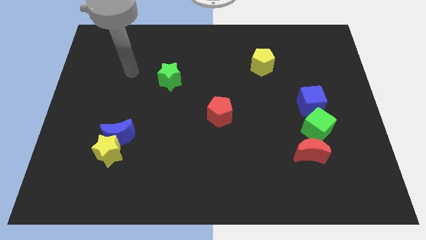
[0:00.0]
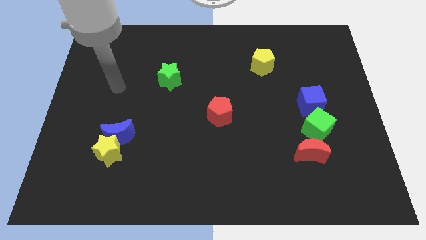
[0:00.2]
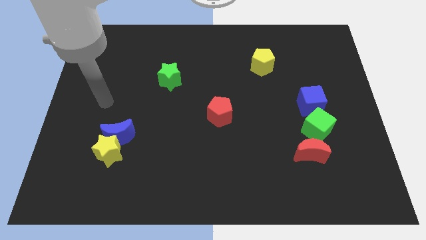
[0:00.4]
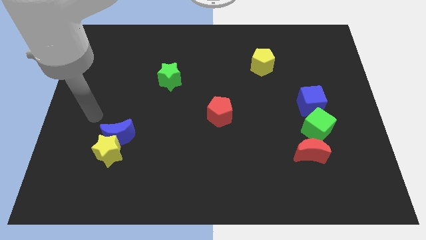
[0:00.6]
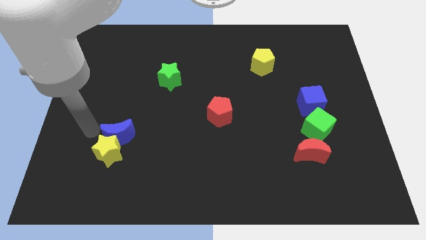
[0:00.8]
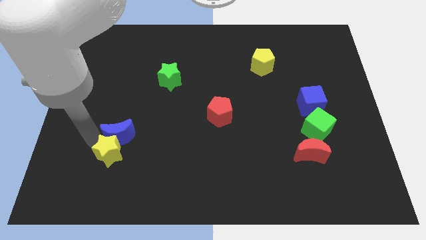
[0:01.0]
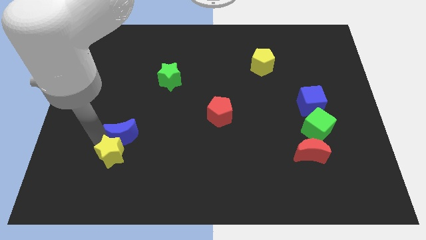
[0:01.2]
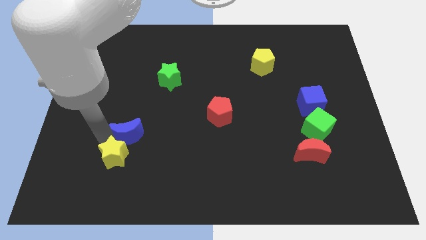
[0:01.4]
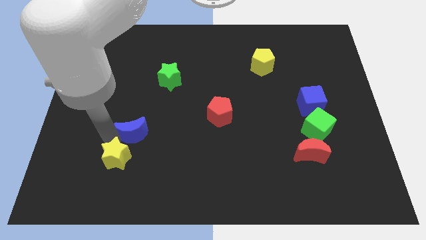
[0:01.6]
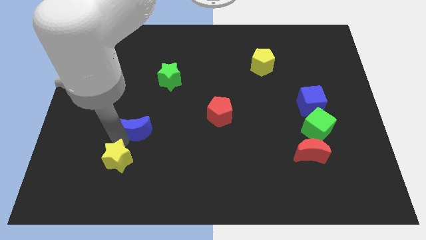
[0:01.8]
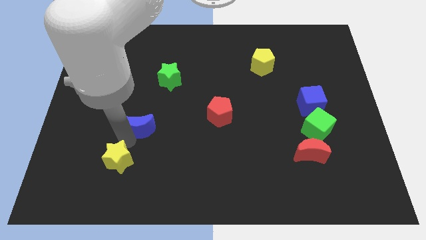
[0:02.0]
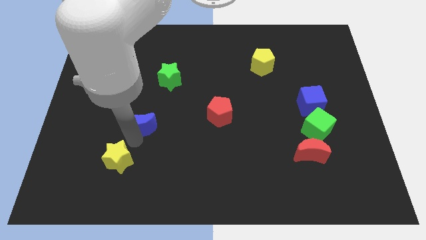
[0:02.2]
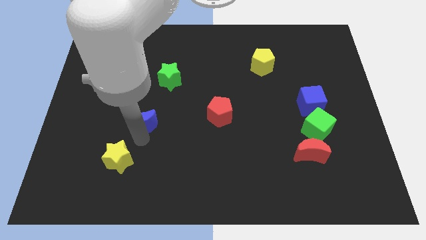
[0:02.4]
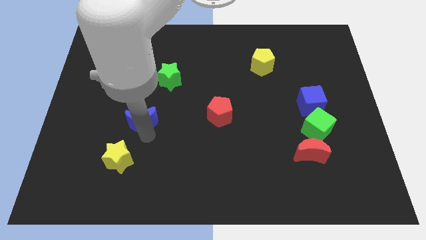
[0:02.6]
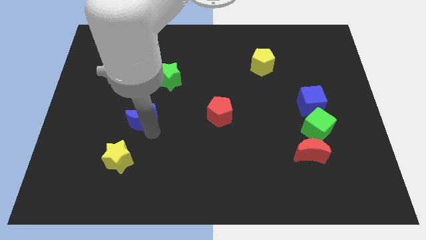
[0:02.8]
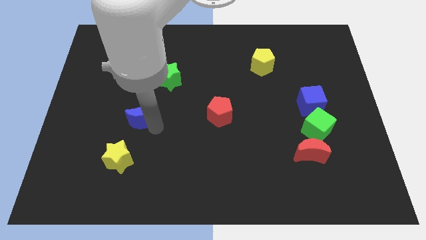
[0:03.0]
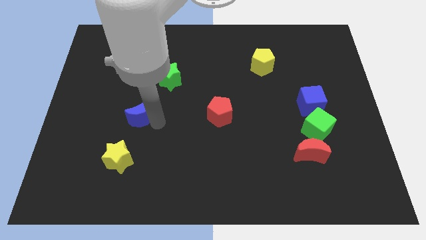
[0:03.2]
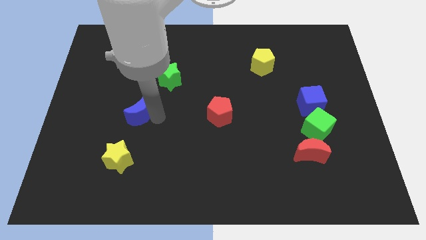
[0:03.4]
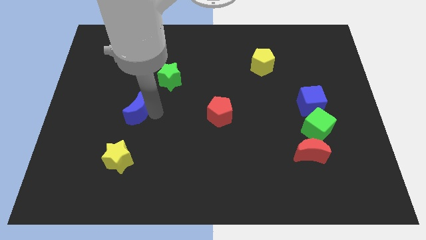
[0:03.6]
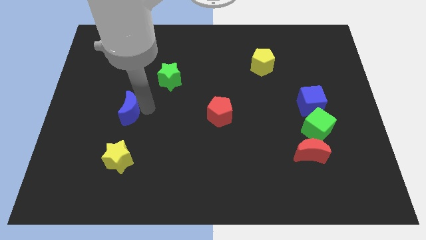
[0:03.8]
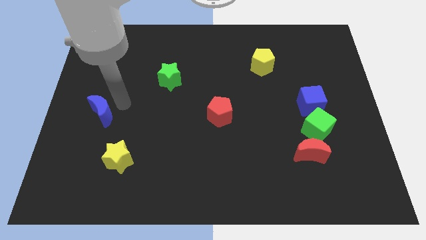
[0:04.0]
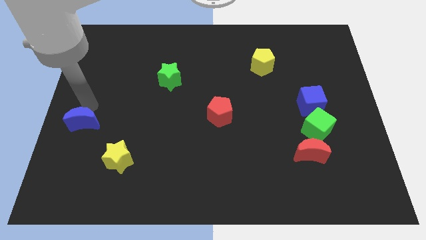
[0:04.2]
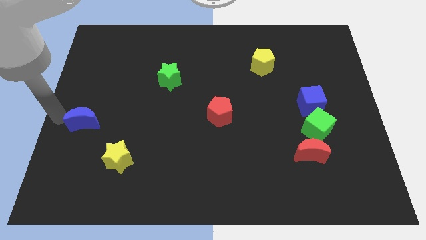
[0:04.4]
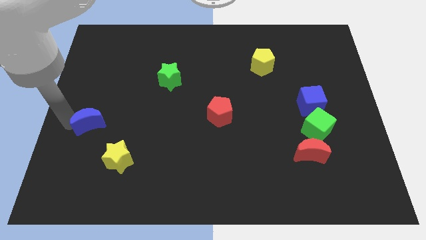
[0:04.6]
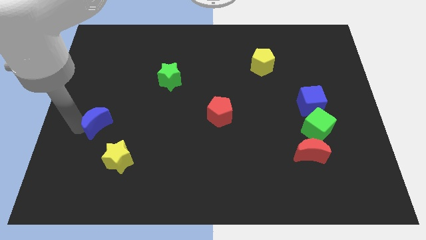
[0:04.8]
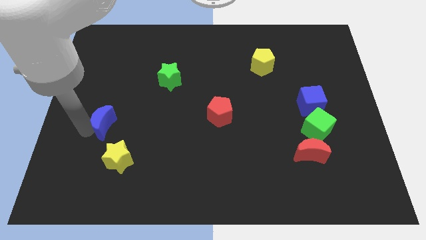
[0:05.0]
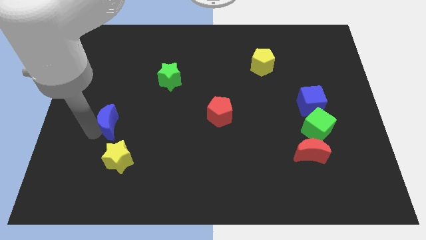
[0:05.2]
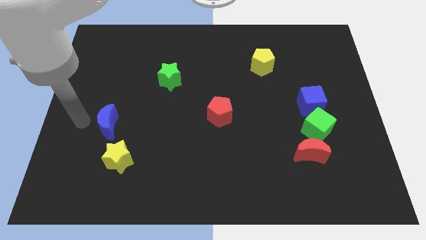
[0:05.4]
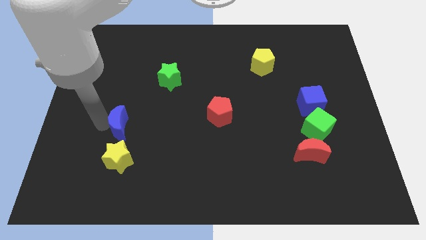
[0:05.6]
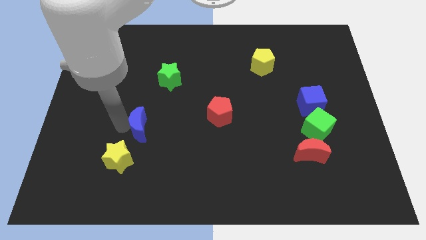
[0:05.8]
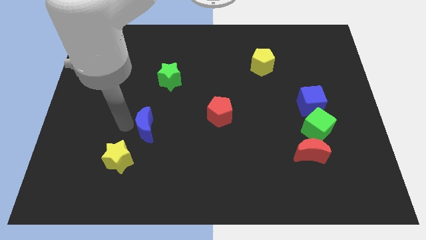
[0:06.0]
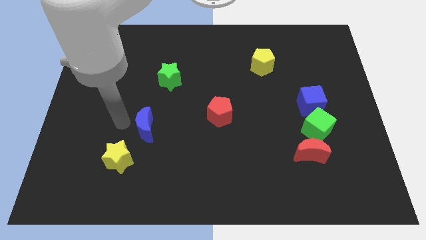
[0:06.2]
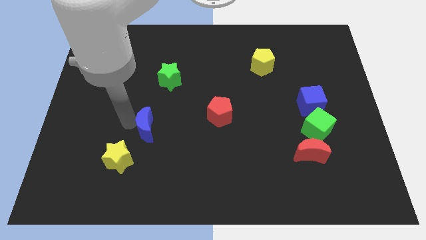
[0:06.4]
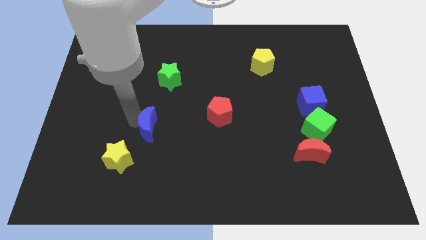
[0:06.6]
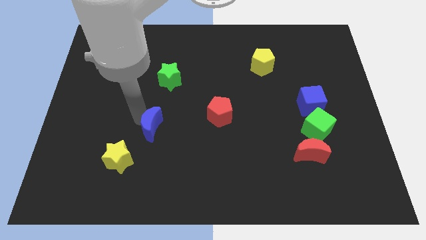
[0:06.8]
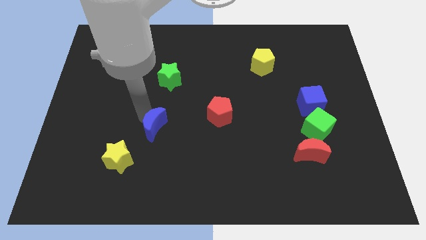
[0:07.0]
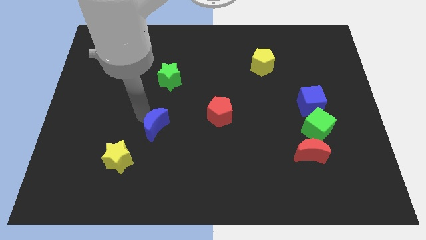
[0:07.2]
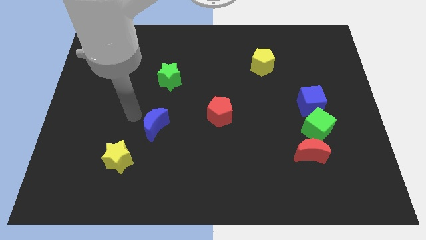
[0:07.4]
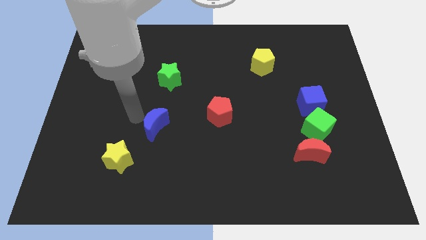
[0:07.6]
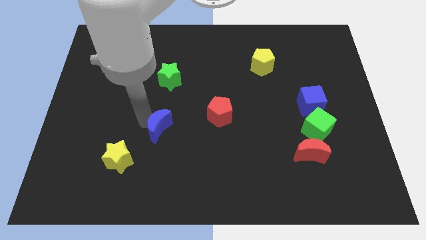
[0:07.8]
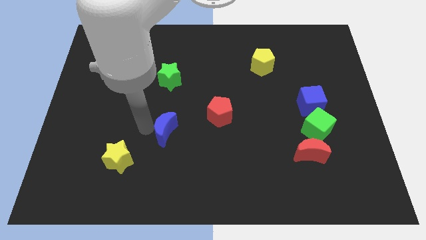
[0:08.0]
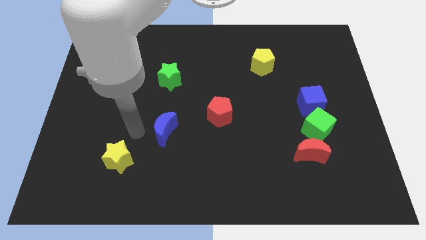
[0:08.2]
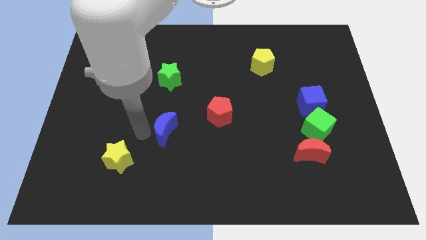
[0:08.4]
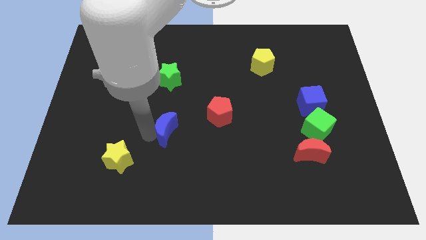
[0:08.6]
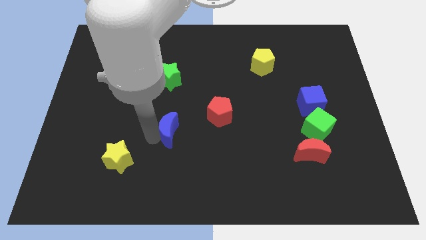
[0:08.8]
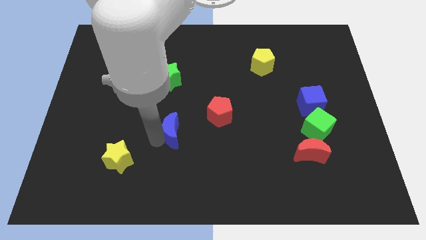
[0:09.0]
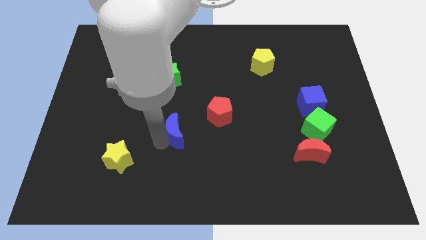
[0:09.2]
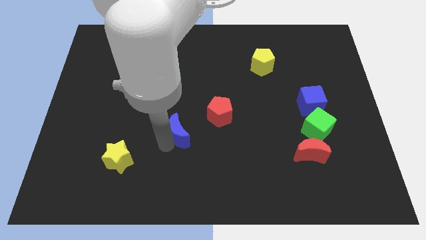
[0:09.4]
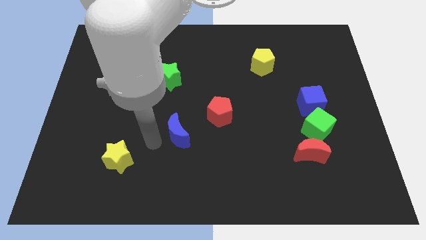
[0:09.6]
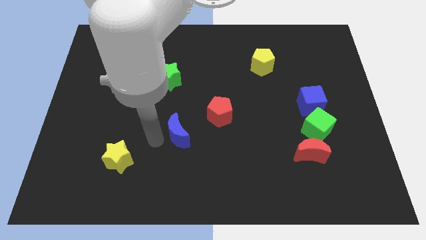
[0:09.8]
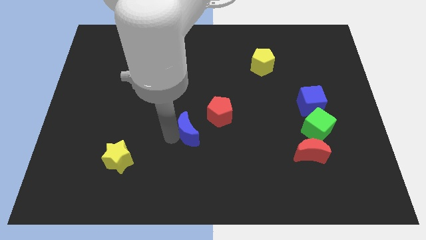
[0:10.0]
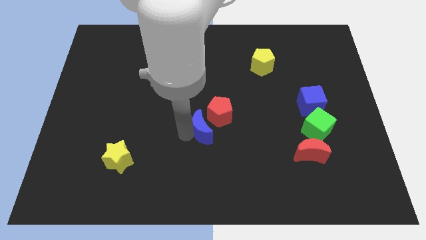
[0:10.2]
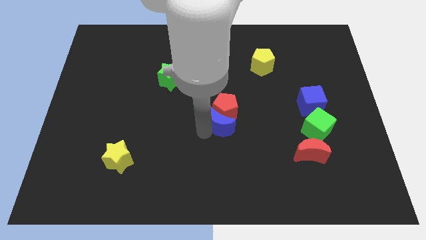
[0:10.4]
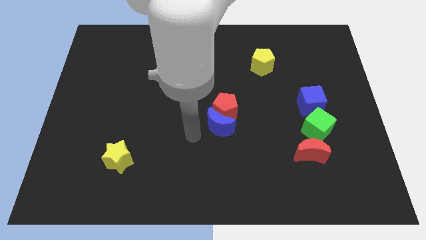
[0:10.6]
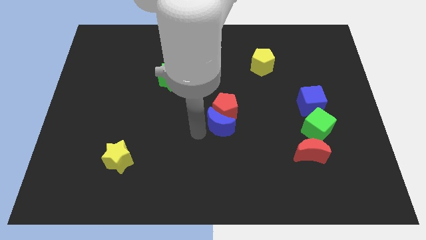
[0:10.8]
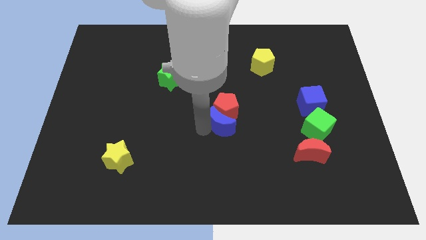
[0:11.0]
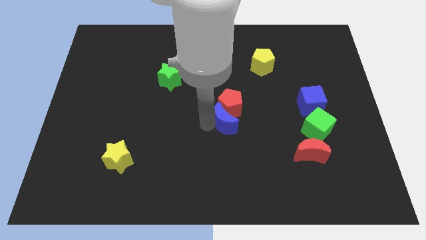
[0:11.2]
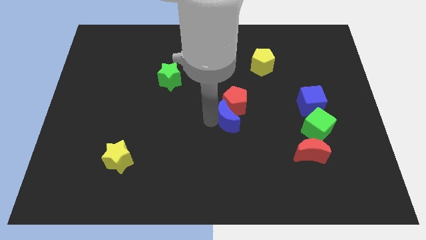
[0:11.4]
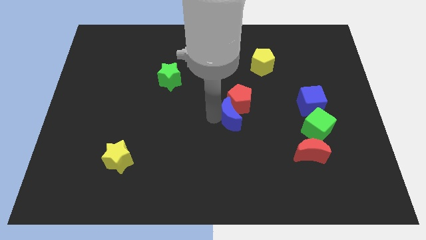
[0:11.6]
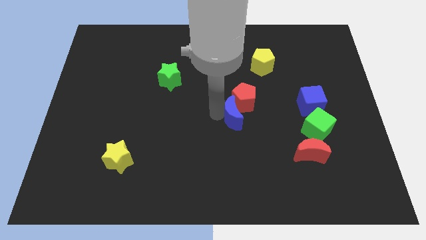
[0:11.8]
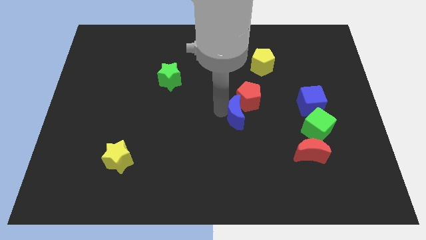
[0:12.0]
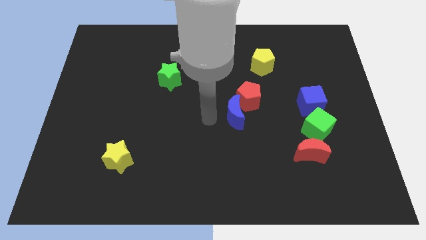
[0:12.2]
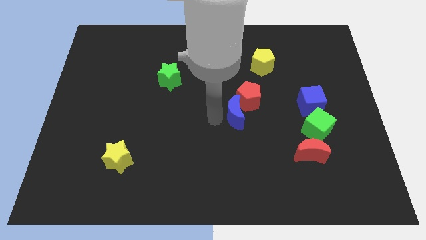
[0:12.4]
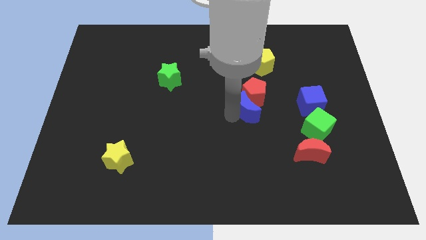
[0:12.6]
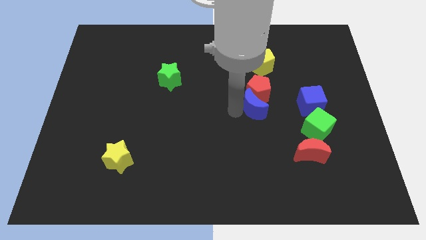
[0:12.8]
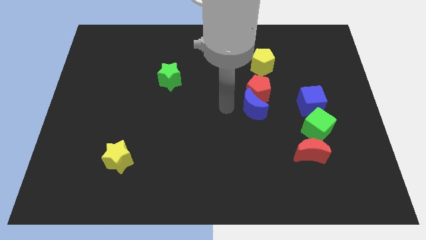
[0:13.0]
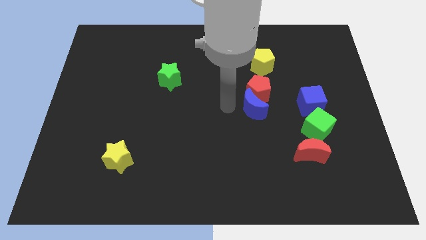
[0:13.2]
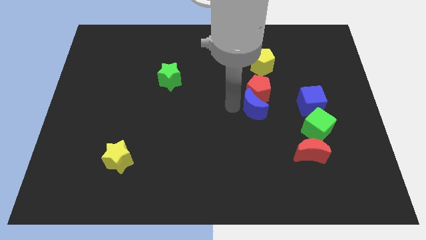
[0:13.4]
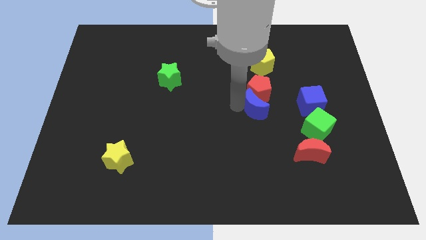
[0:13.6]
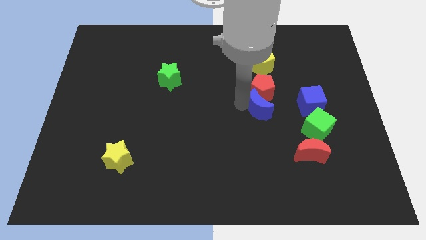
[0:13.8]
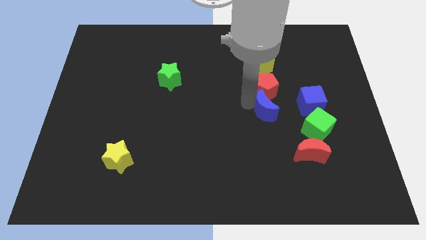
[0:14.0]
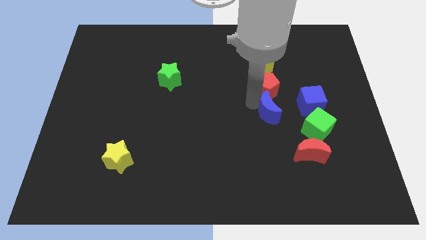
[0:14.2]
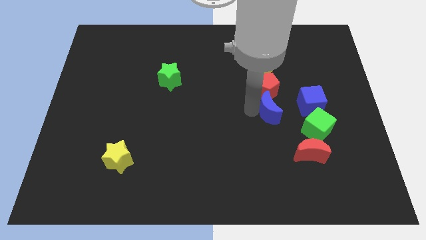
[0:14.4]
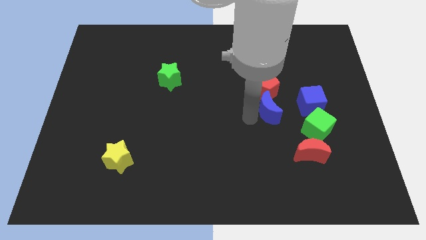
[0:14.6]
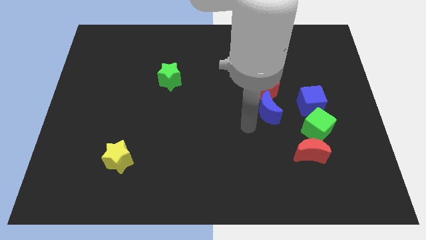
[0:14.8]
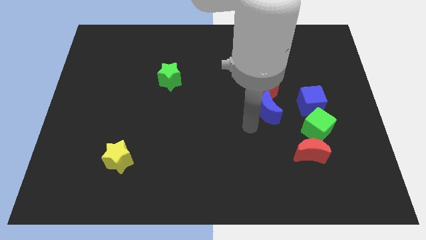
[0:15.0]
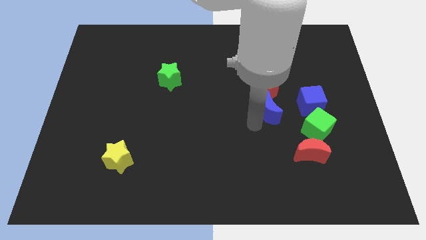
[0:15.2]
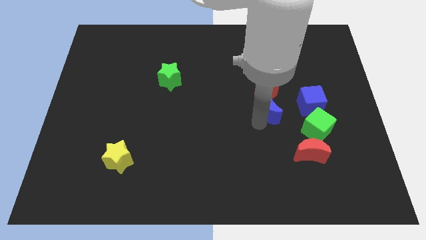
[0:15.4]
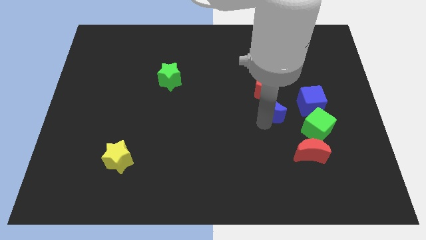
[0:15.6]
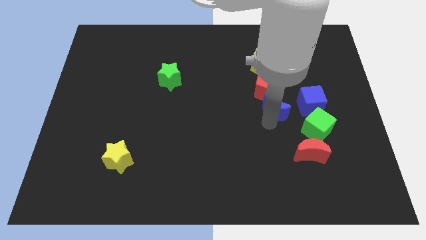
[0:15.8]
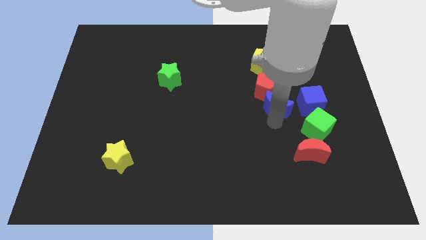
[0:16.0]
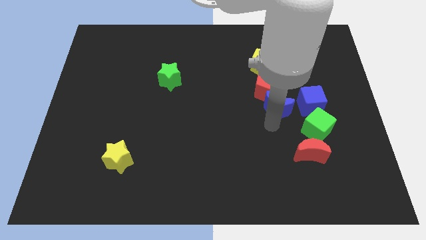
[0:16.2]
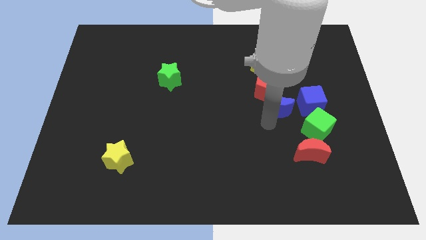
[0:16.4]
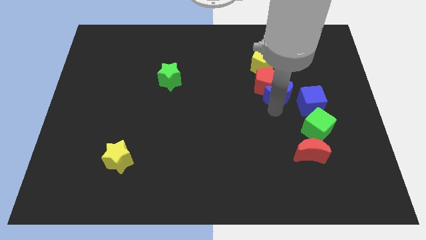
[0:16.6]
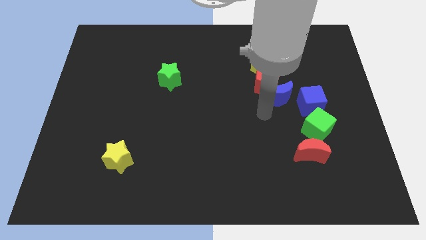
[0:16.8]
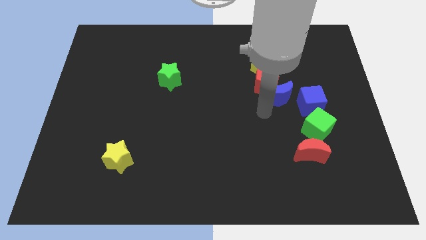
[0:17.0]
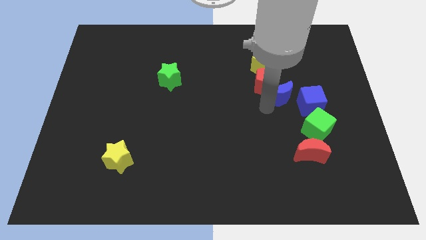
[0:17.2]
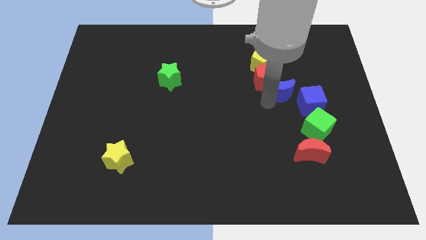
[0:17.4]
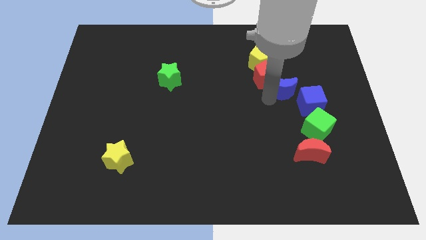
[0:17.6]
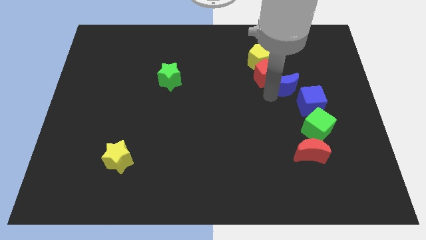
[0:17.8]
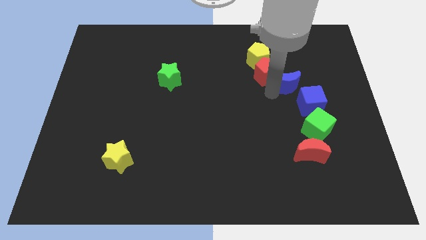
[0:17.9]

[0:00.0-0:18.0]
push the blue moon above the blue cube
